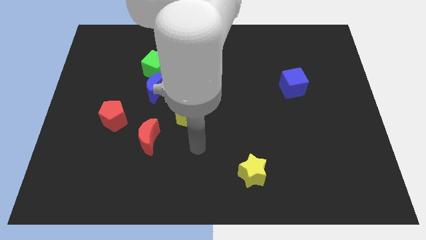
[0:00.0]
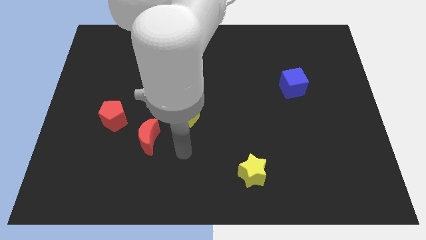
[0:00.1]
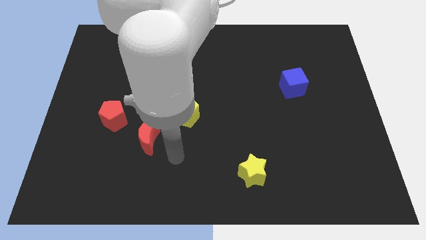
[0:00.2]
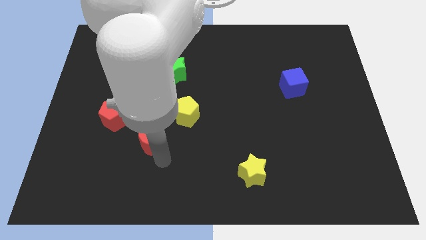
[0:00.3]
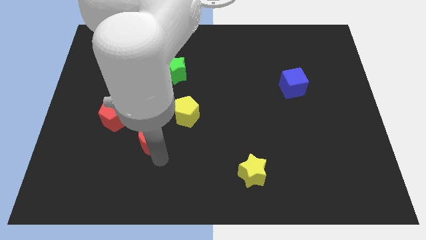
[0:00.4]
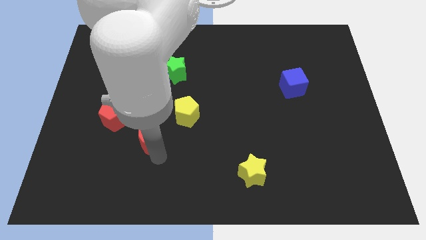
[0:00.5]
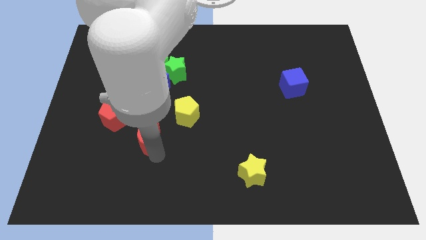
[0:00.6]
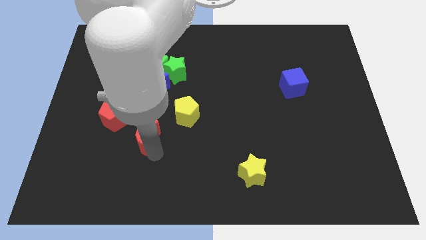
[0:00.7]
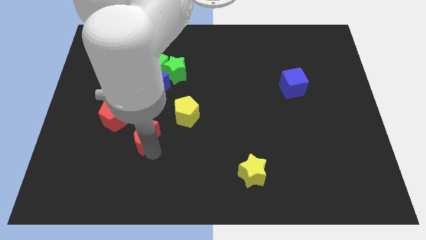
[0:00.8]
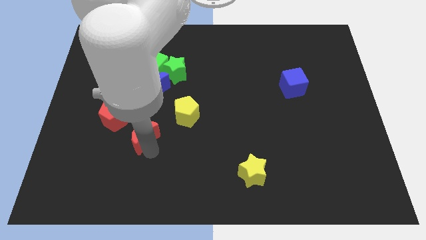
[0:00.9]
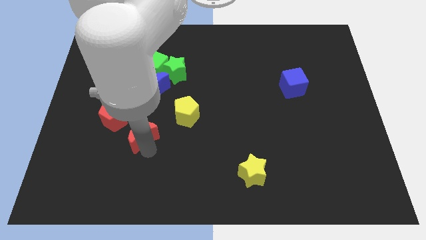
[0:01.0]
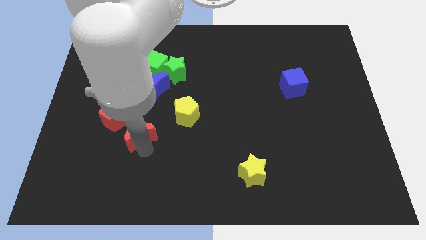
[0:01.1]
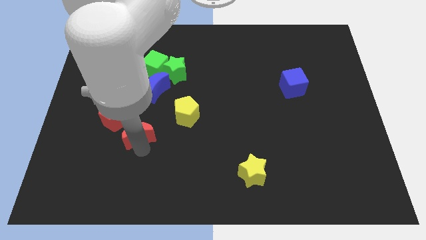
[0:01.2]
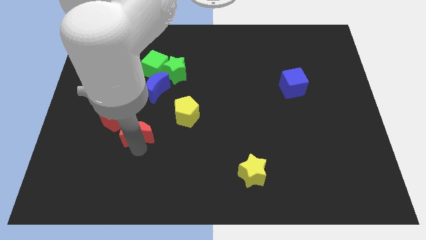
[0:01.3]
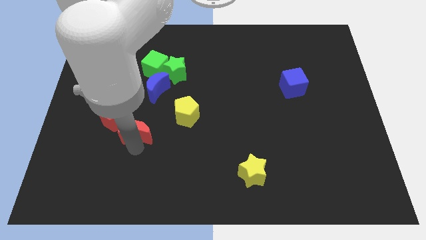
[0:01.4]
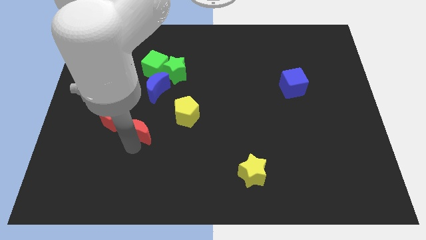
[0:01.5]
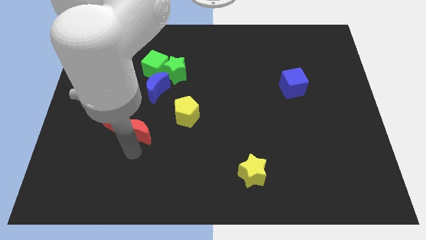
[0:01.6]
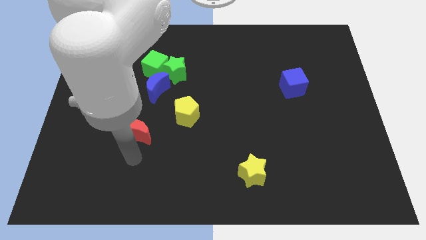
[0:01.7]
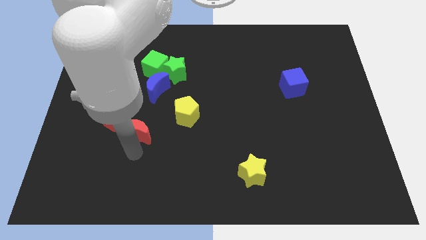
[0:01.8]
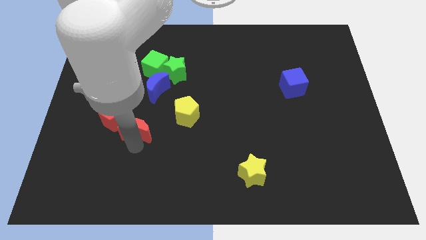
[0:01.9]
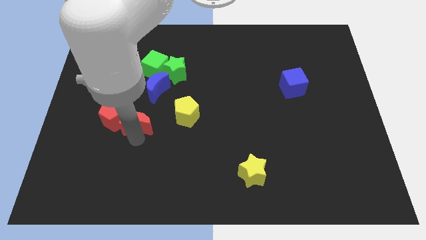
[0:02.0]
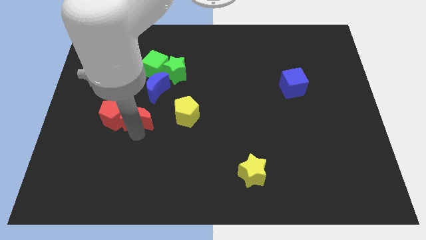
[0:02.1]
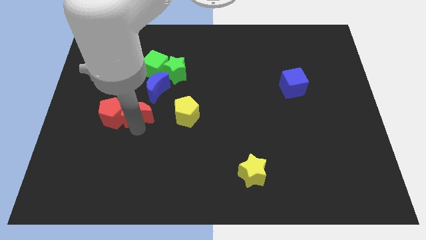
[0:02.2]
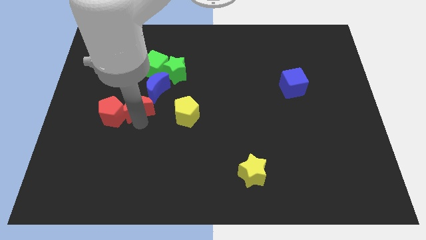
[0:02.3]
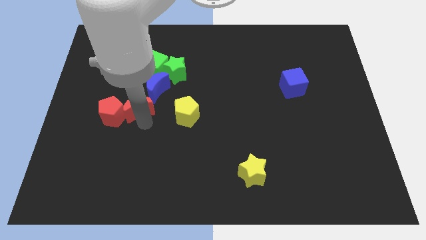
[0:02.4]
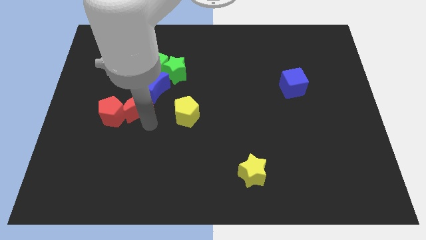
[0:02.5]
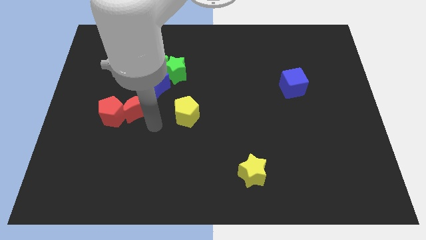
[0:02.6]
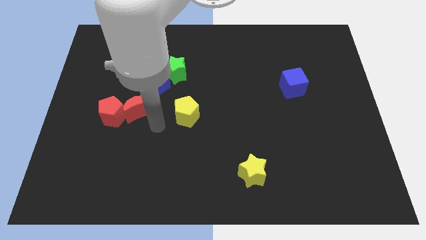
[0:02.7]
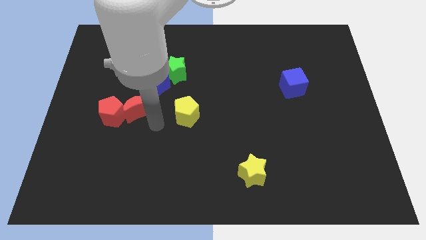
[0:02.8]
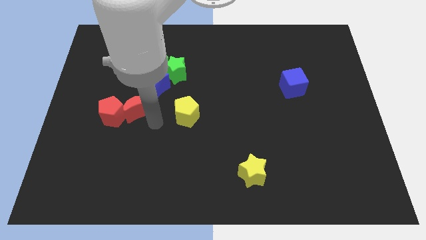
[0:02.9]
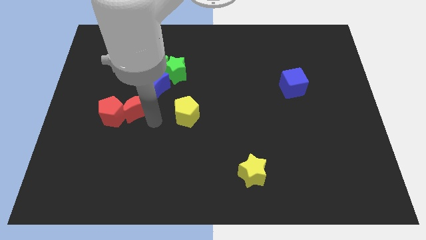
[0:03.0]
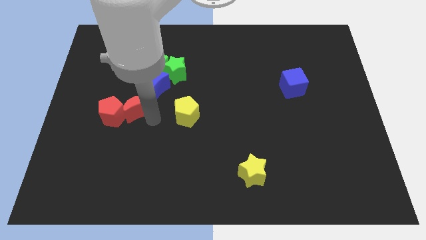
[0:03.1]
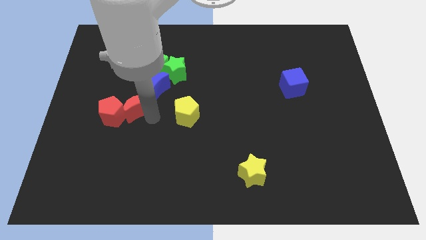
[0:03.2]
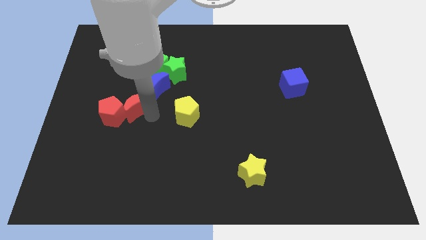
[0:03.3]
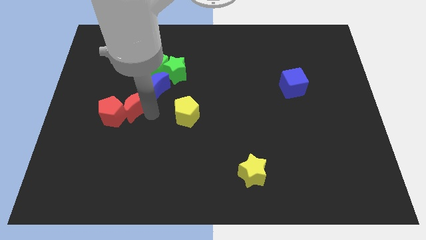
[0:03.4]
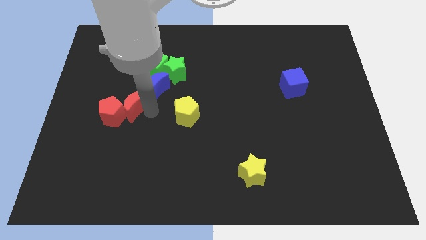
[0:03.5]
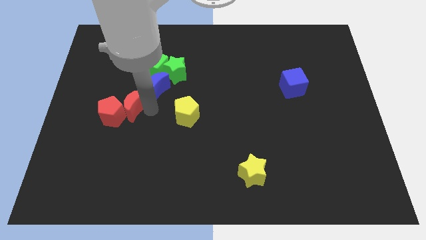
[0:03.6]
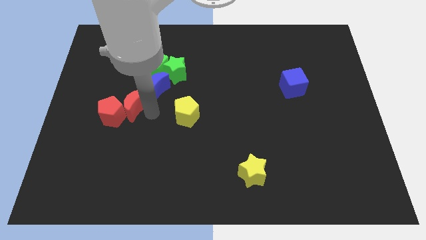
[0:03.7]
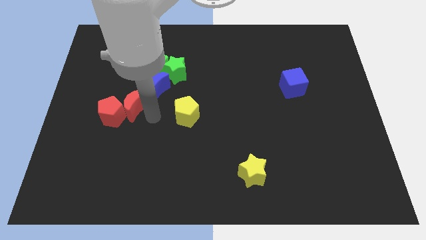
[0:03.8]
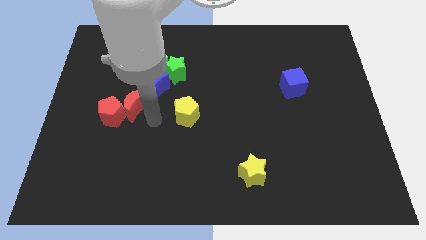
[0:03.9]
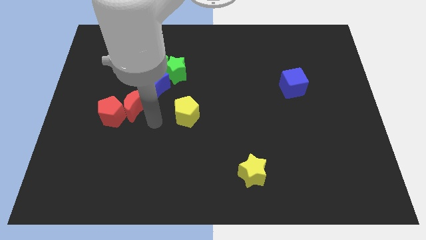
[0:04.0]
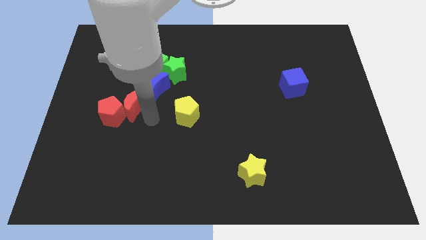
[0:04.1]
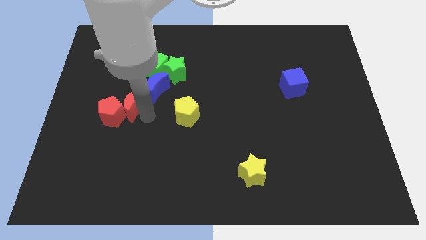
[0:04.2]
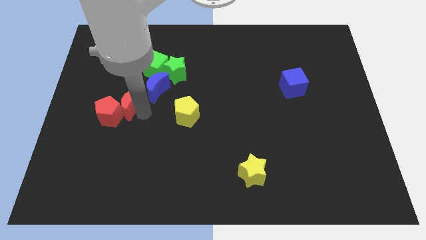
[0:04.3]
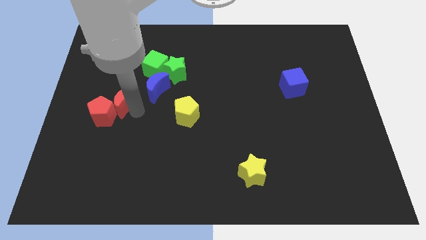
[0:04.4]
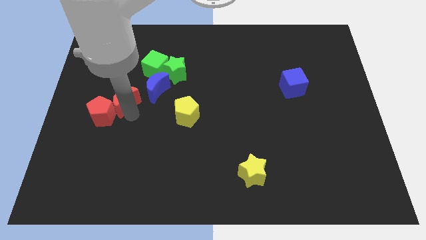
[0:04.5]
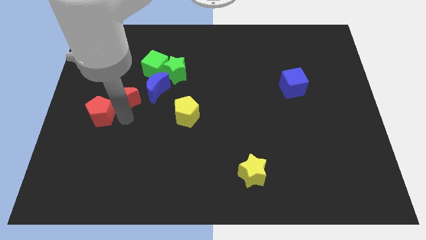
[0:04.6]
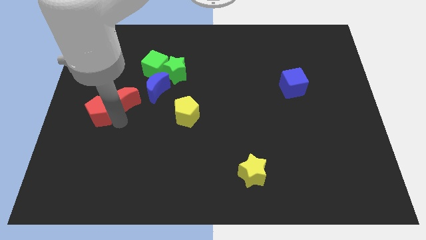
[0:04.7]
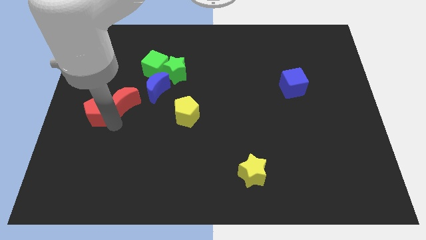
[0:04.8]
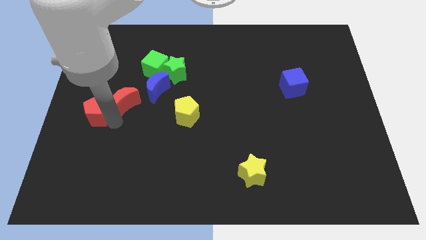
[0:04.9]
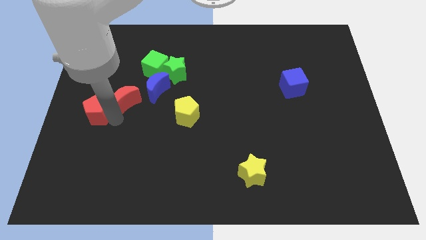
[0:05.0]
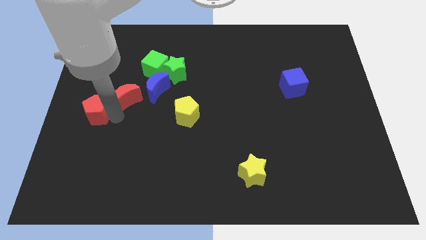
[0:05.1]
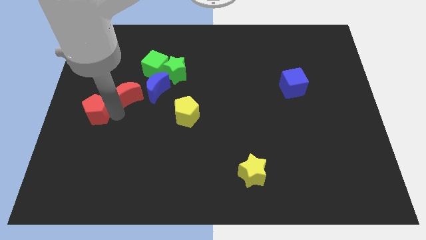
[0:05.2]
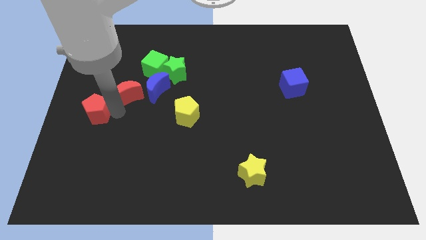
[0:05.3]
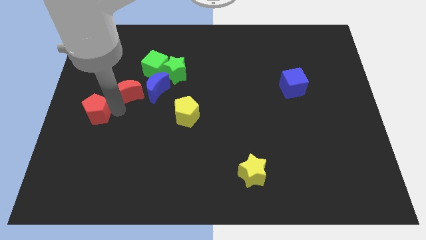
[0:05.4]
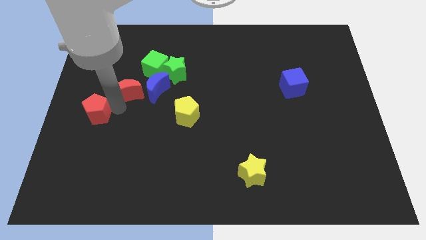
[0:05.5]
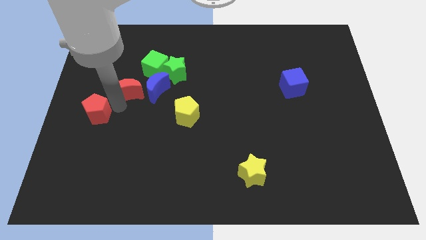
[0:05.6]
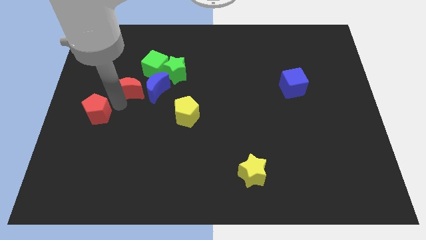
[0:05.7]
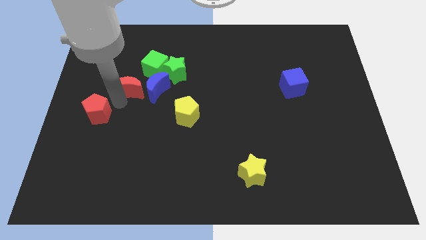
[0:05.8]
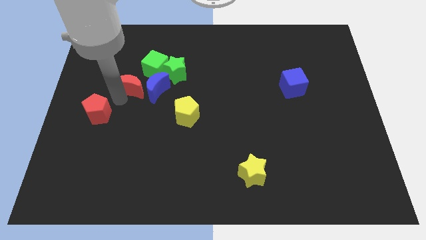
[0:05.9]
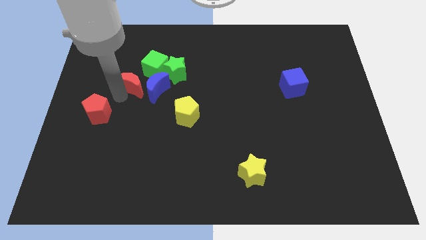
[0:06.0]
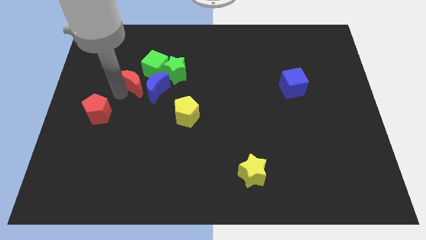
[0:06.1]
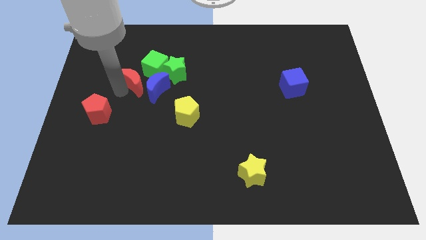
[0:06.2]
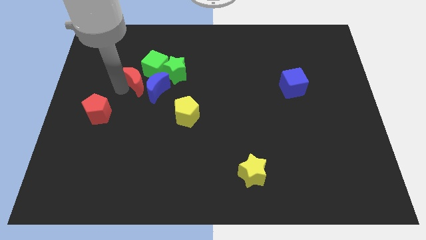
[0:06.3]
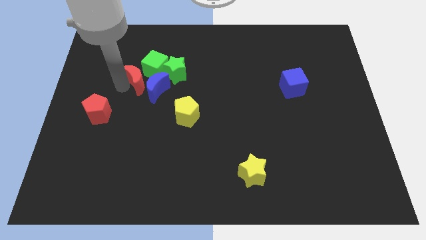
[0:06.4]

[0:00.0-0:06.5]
push the red moon next to the green cube

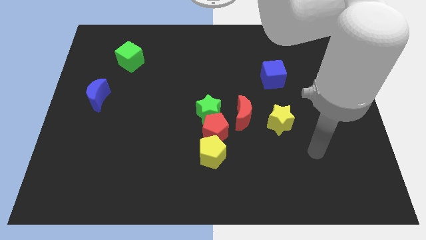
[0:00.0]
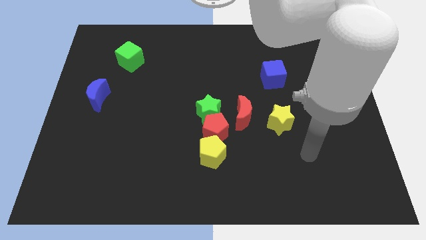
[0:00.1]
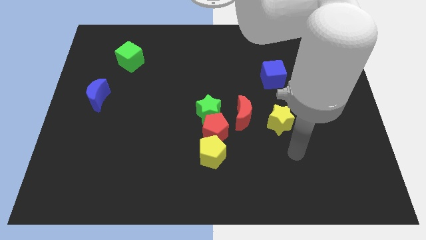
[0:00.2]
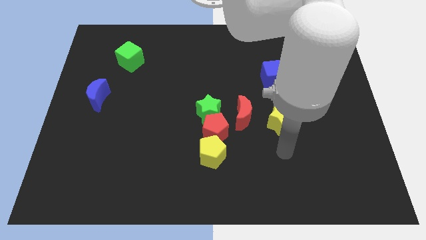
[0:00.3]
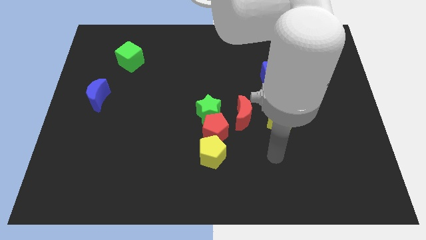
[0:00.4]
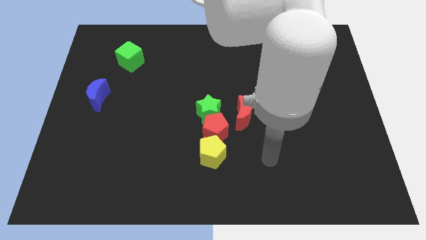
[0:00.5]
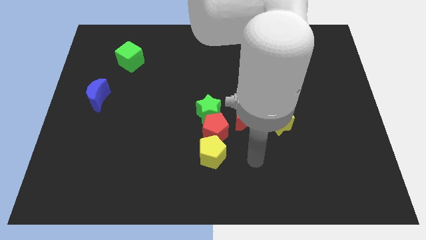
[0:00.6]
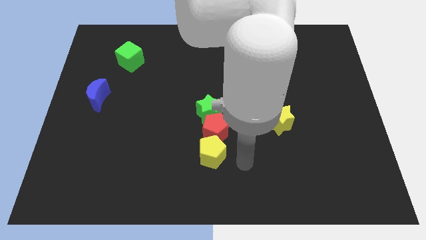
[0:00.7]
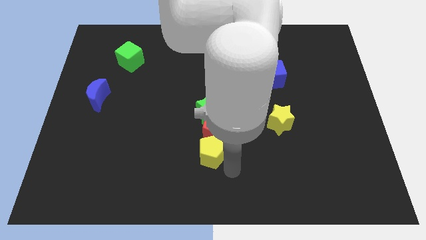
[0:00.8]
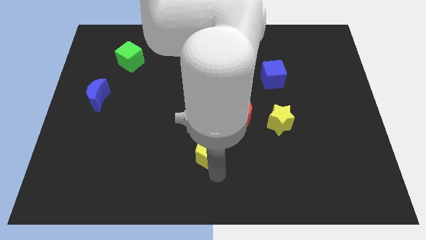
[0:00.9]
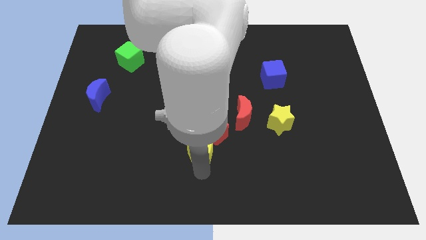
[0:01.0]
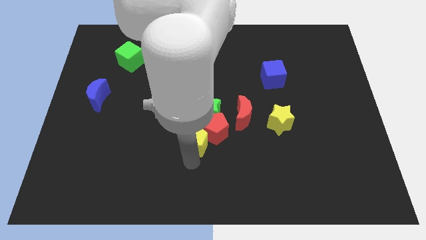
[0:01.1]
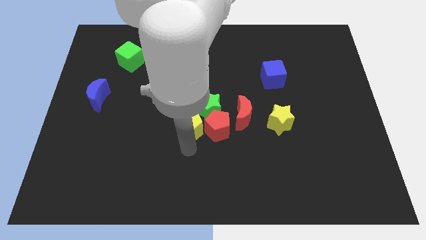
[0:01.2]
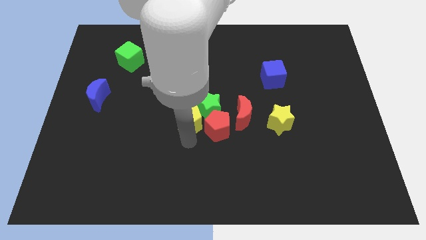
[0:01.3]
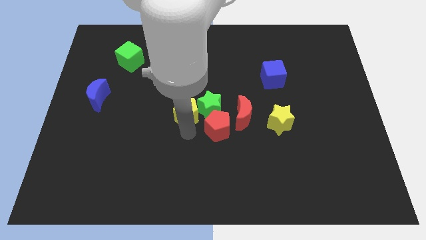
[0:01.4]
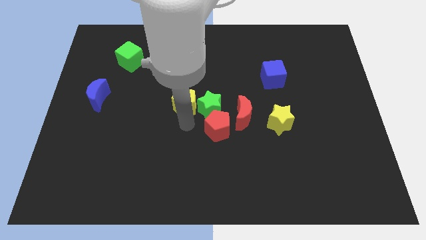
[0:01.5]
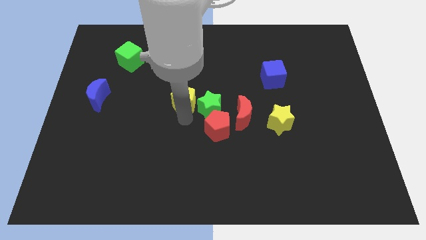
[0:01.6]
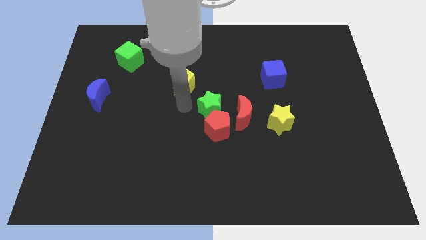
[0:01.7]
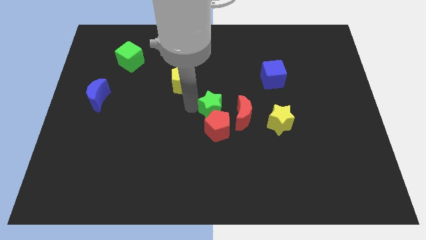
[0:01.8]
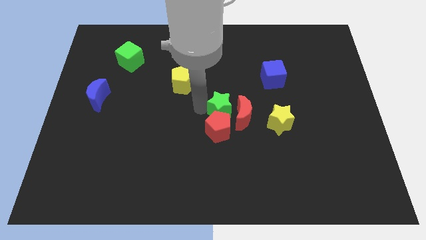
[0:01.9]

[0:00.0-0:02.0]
move the green star close to the red moon
